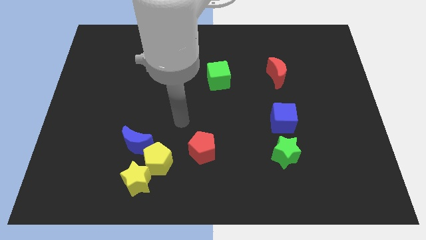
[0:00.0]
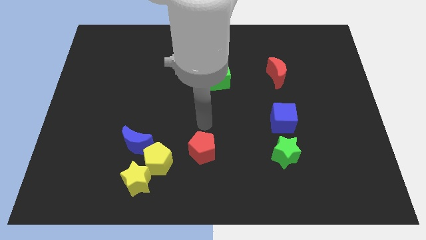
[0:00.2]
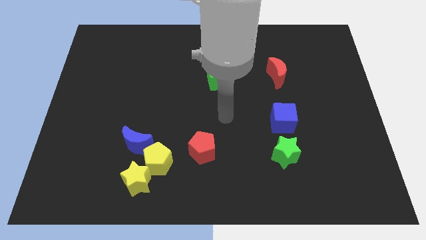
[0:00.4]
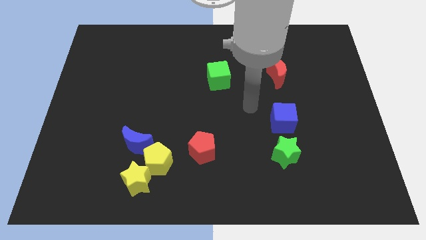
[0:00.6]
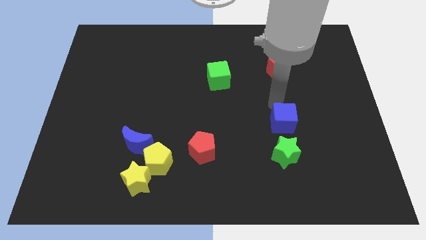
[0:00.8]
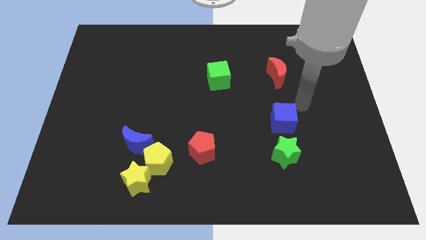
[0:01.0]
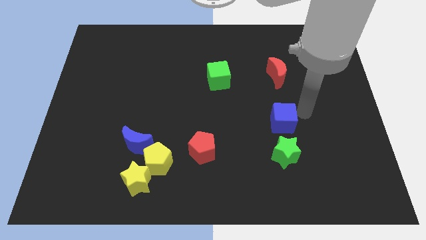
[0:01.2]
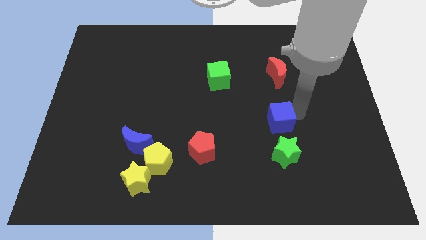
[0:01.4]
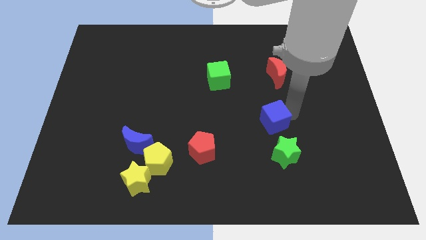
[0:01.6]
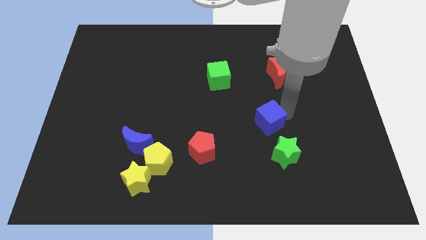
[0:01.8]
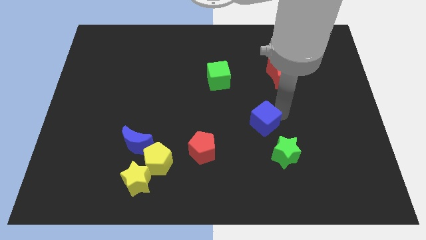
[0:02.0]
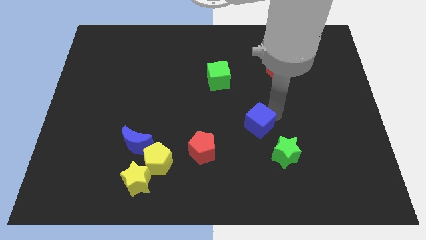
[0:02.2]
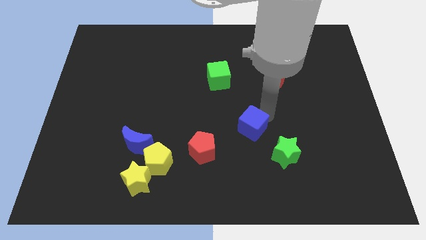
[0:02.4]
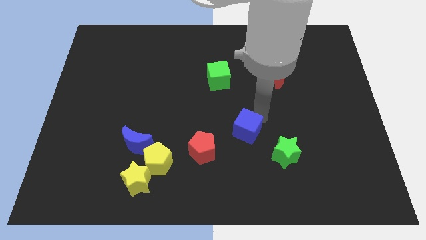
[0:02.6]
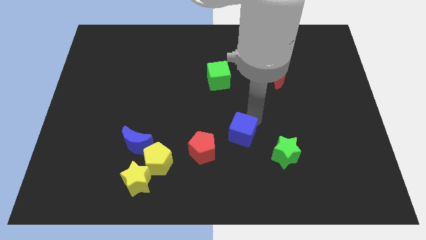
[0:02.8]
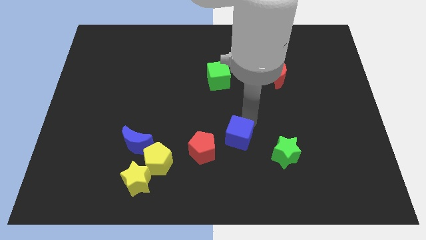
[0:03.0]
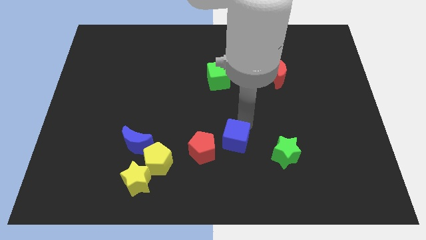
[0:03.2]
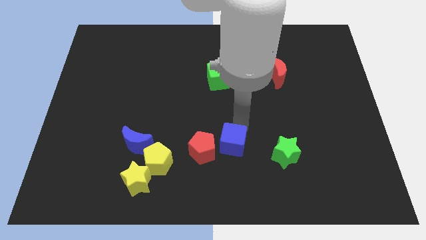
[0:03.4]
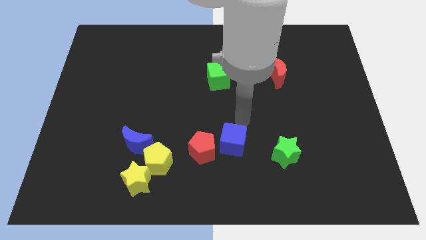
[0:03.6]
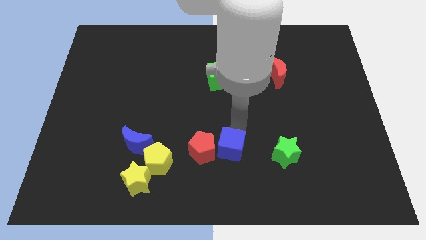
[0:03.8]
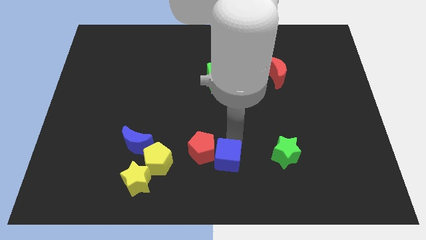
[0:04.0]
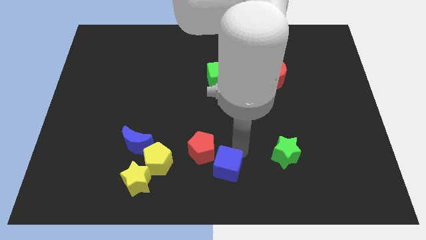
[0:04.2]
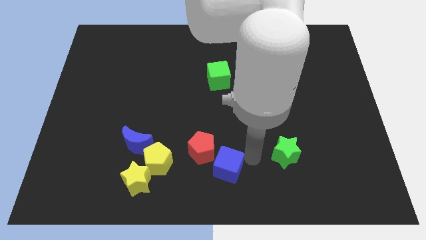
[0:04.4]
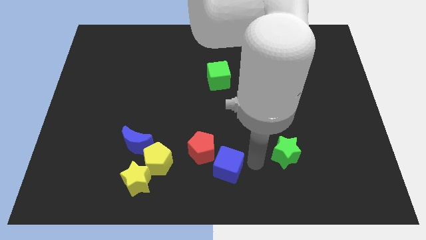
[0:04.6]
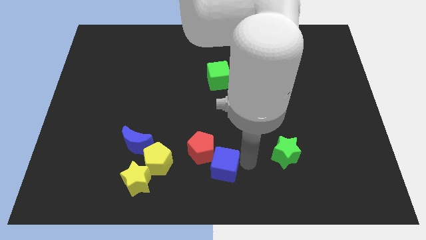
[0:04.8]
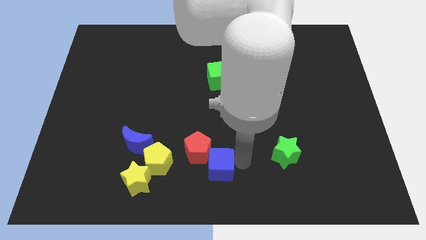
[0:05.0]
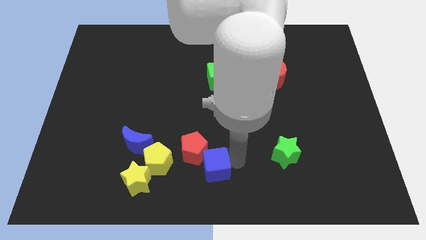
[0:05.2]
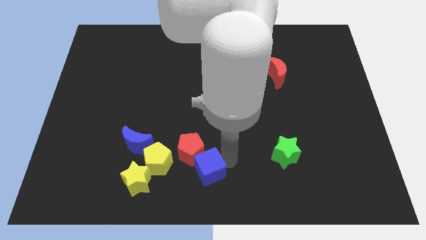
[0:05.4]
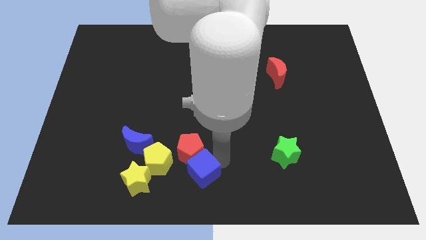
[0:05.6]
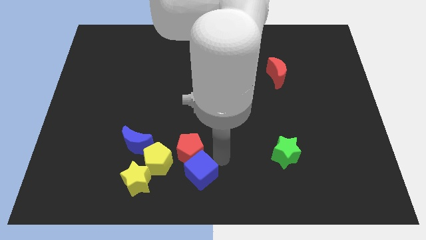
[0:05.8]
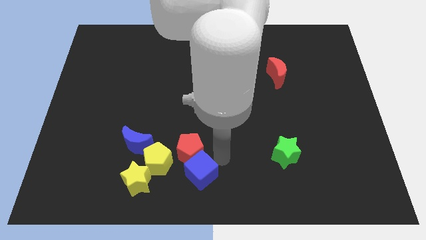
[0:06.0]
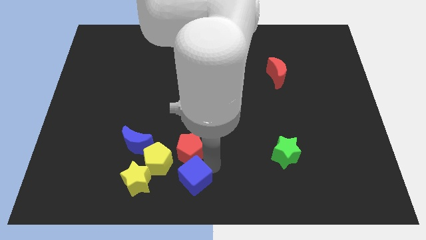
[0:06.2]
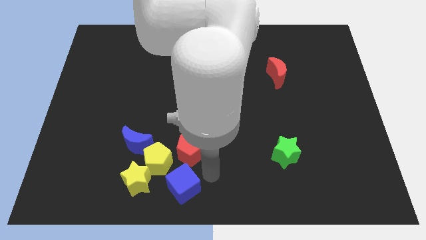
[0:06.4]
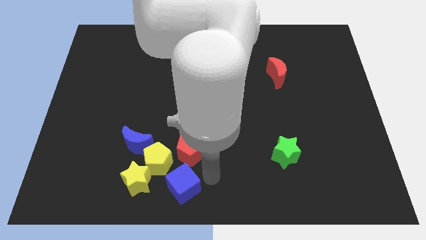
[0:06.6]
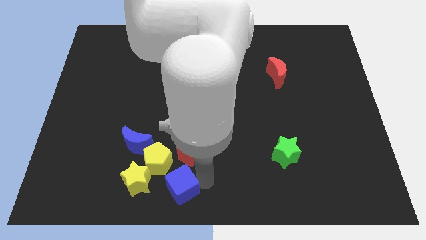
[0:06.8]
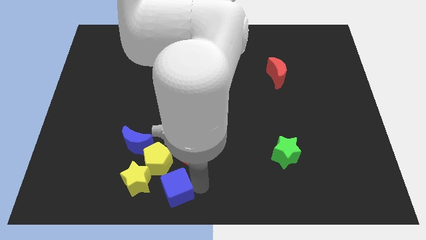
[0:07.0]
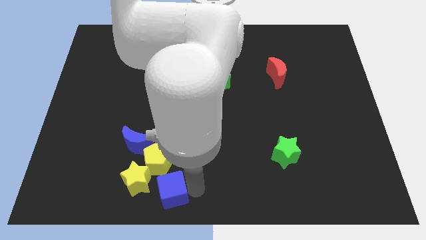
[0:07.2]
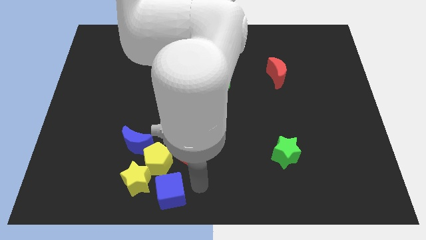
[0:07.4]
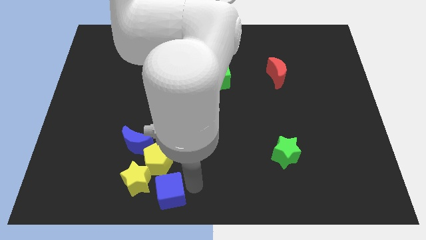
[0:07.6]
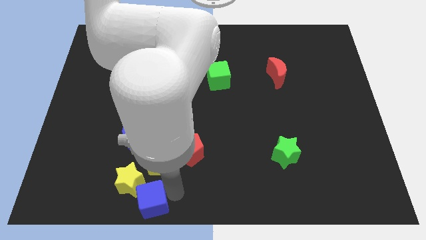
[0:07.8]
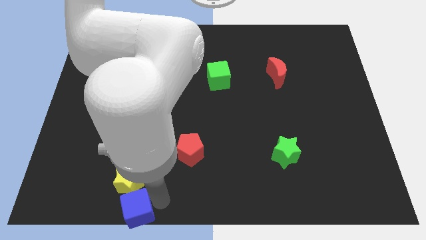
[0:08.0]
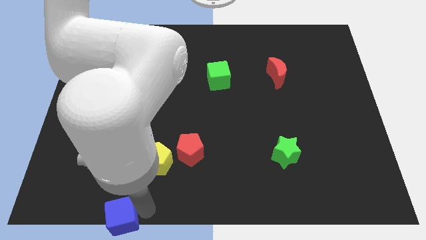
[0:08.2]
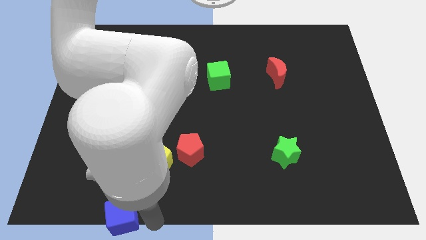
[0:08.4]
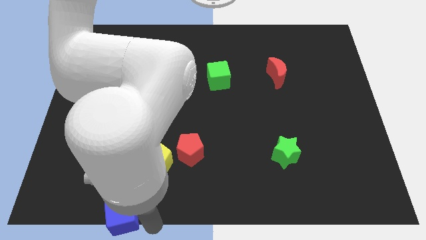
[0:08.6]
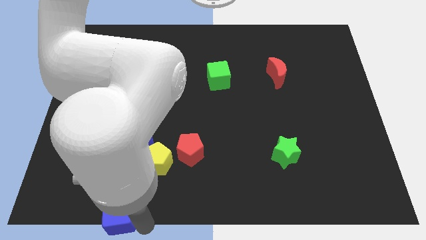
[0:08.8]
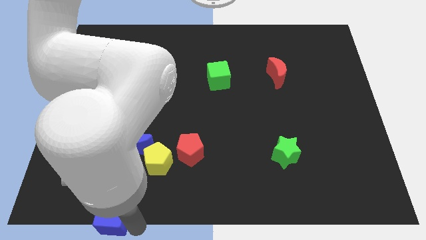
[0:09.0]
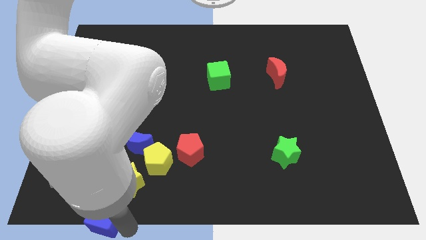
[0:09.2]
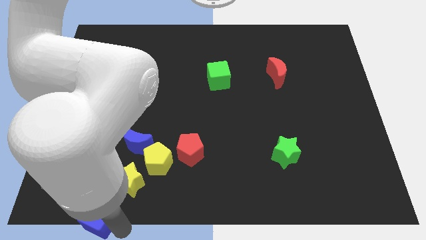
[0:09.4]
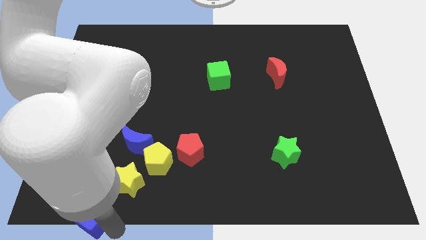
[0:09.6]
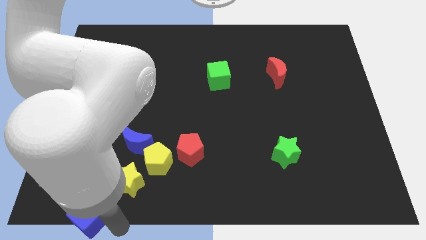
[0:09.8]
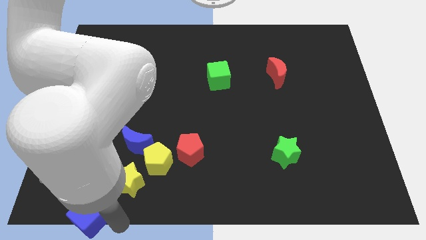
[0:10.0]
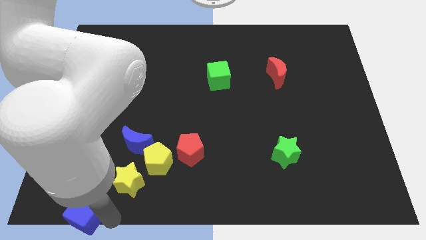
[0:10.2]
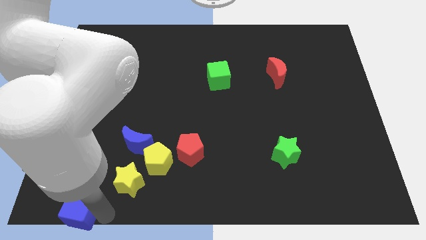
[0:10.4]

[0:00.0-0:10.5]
slide the blue cube to the bottom left of the board

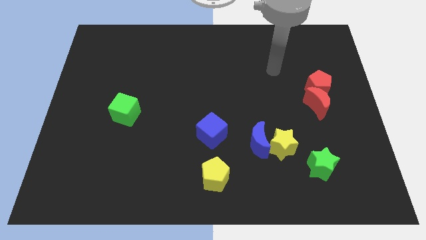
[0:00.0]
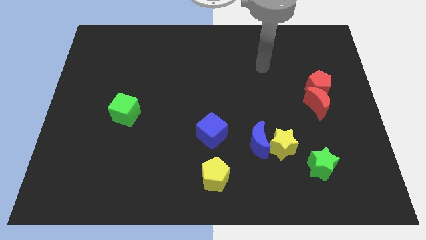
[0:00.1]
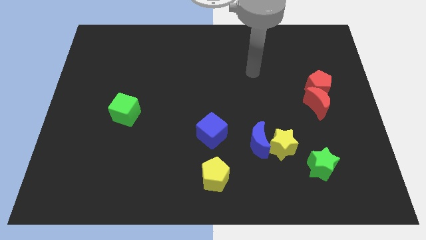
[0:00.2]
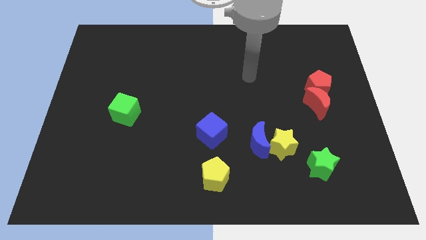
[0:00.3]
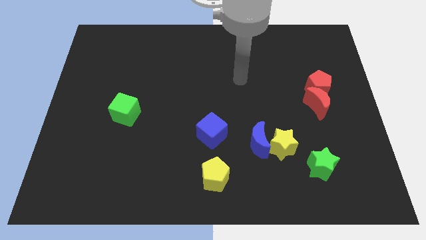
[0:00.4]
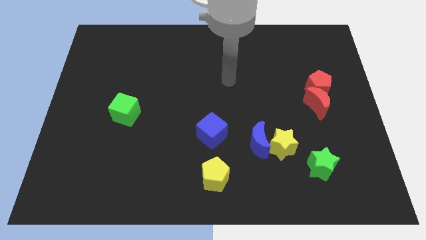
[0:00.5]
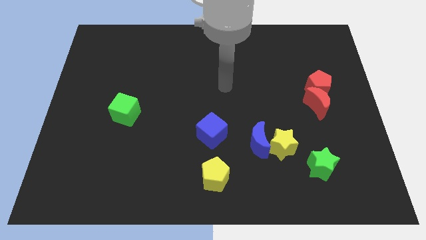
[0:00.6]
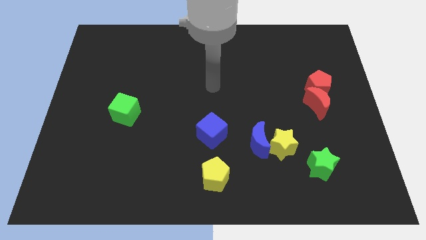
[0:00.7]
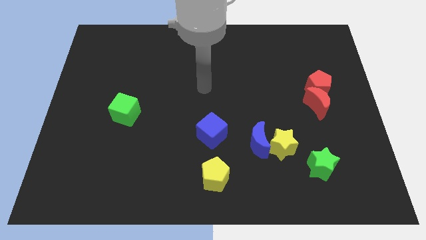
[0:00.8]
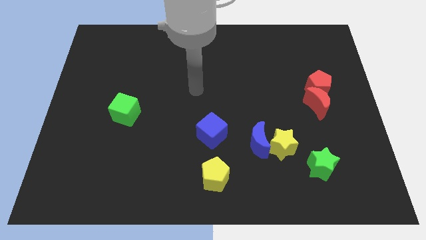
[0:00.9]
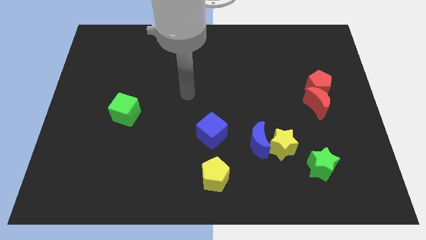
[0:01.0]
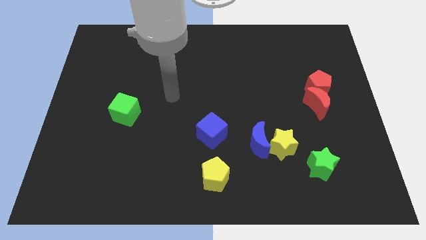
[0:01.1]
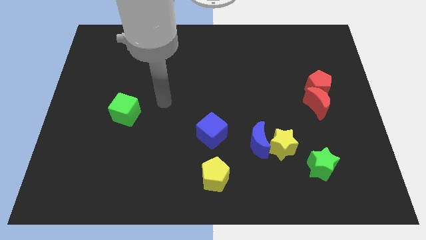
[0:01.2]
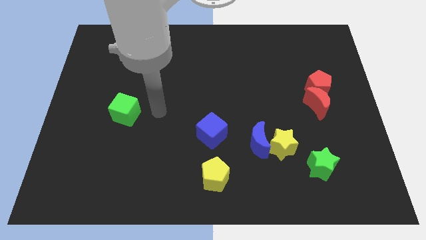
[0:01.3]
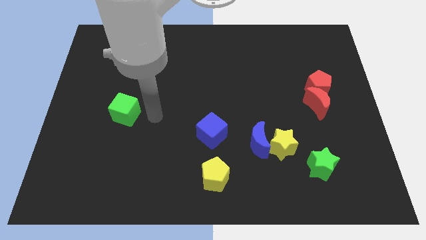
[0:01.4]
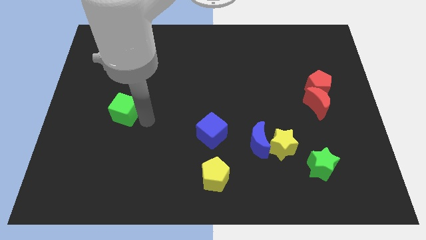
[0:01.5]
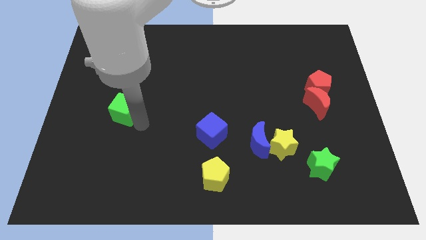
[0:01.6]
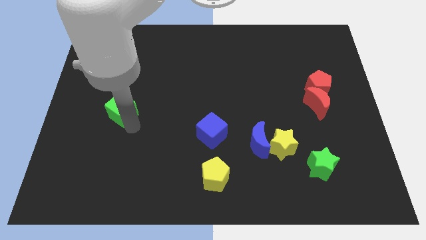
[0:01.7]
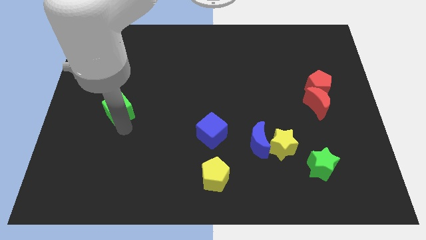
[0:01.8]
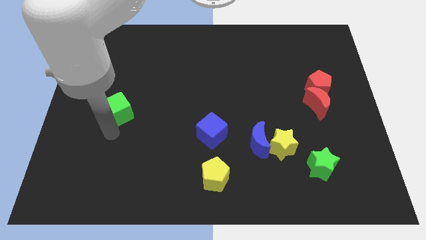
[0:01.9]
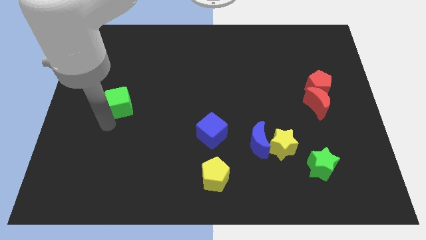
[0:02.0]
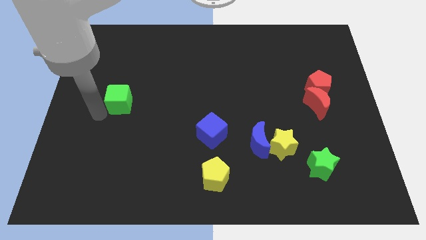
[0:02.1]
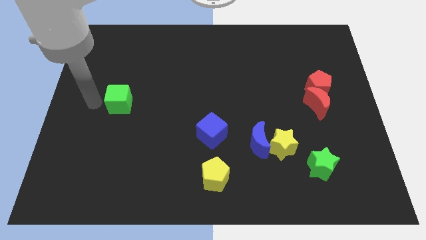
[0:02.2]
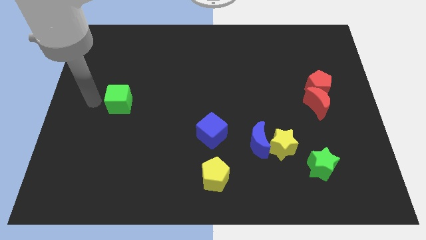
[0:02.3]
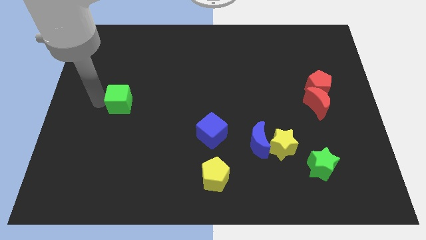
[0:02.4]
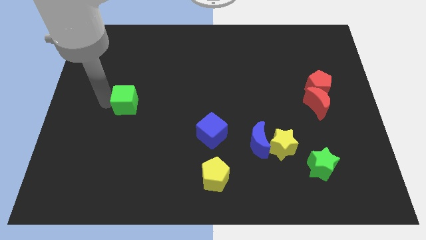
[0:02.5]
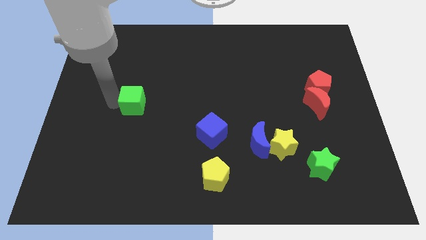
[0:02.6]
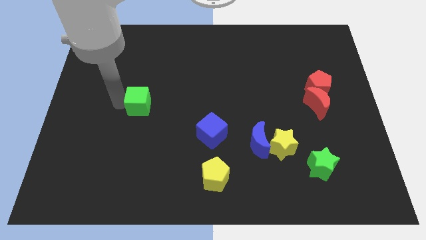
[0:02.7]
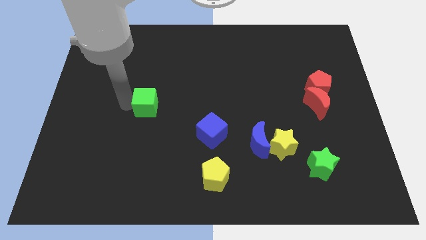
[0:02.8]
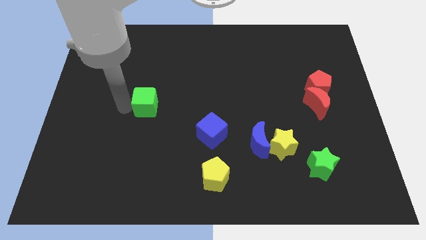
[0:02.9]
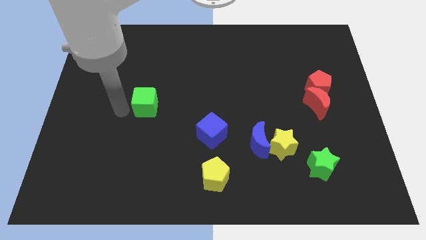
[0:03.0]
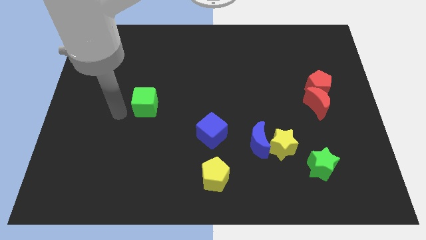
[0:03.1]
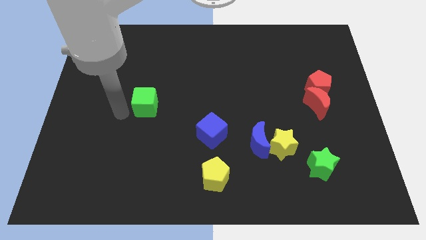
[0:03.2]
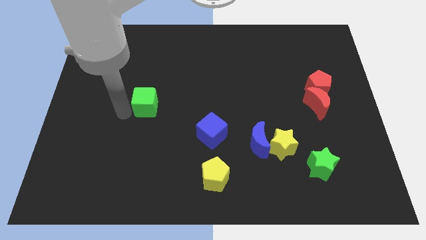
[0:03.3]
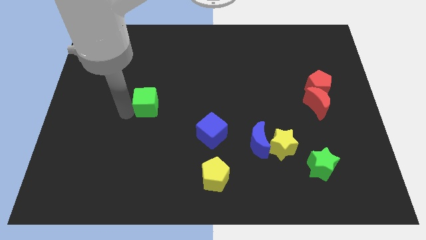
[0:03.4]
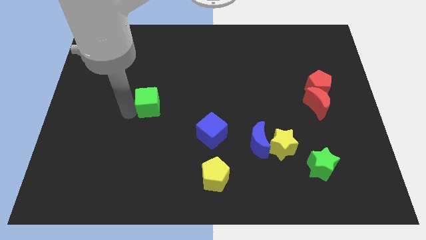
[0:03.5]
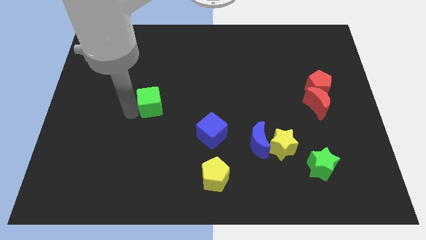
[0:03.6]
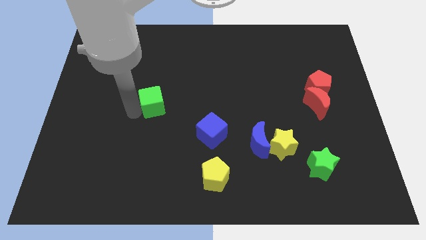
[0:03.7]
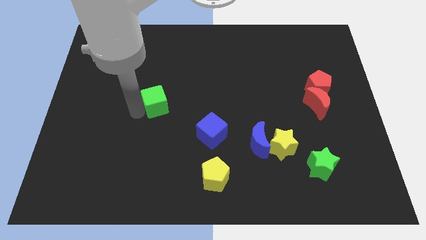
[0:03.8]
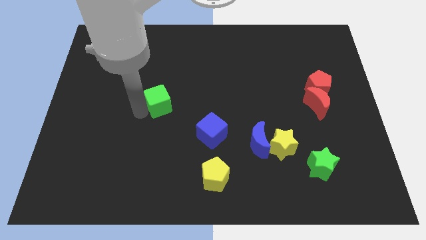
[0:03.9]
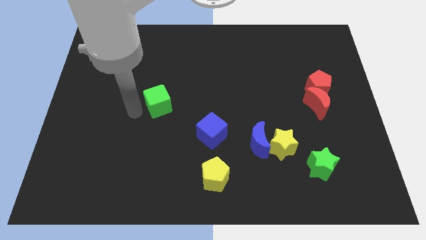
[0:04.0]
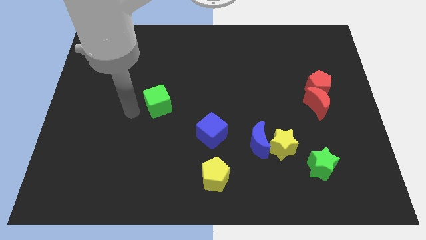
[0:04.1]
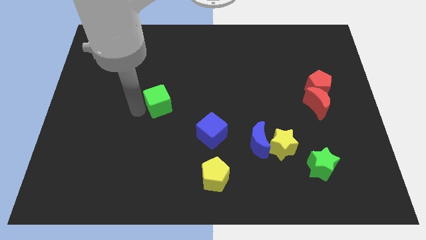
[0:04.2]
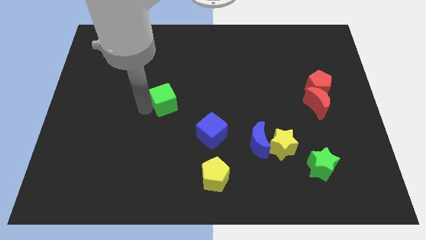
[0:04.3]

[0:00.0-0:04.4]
push the green cube to the middle
